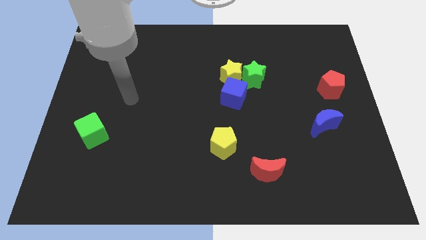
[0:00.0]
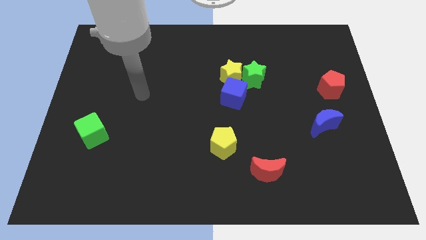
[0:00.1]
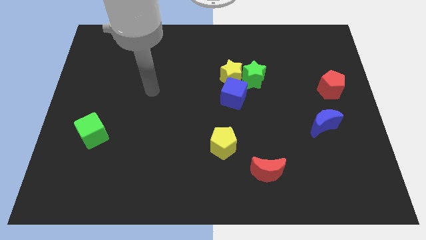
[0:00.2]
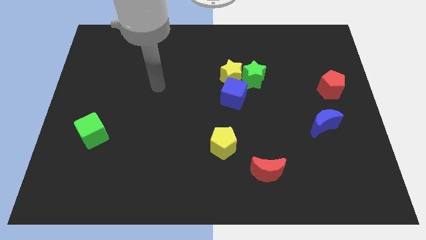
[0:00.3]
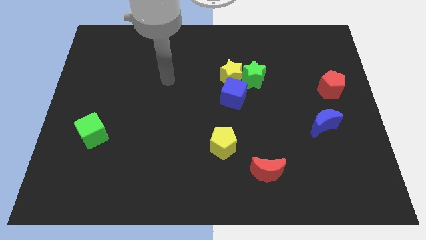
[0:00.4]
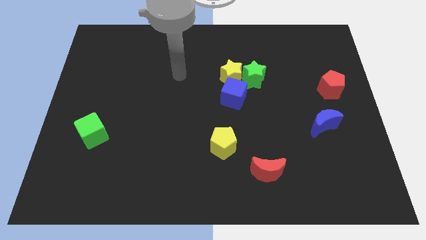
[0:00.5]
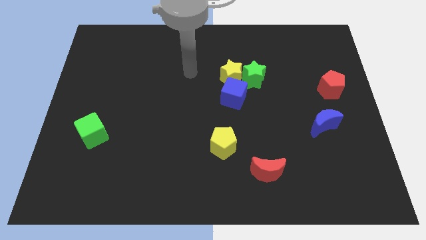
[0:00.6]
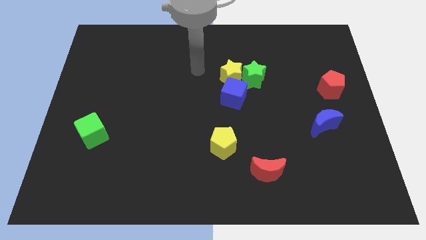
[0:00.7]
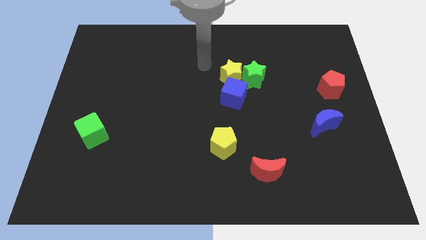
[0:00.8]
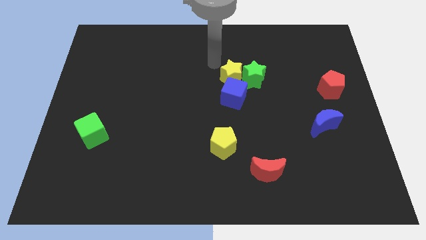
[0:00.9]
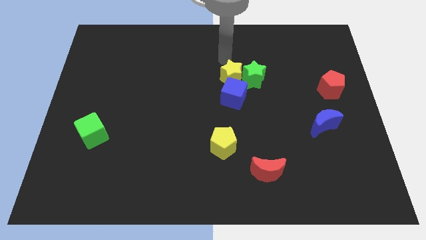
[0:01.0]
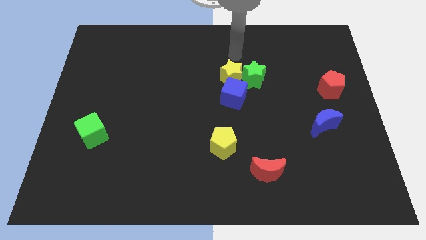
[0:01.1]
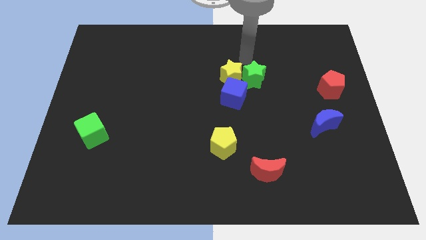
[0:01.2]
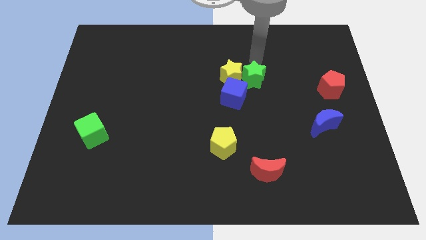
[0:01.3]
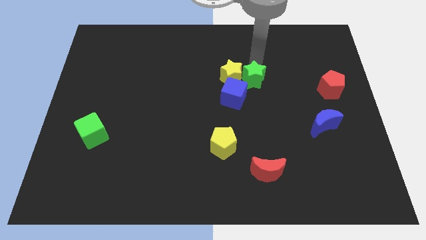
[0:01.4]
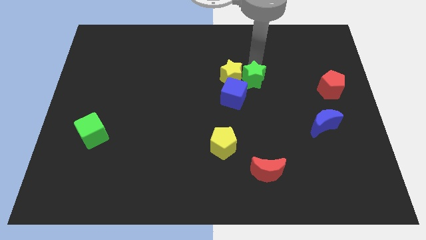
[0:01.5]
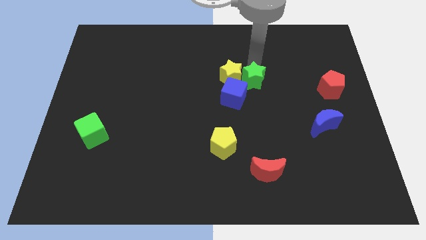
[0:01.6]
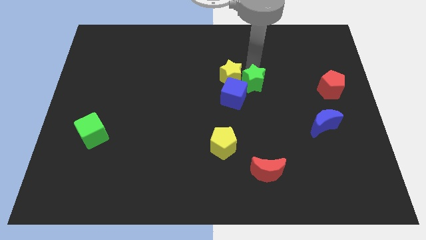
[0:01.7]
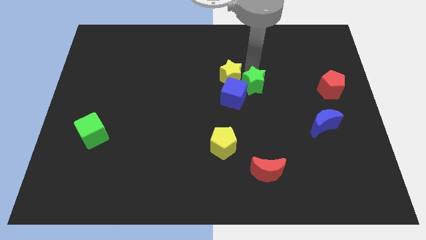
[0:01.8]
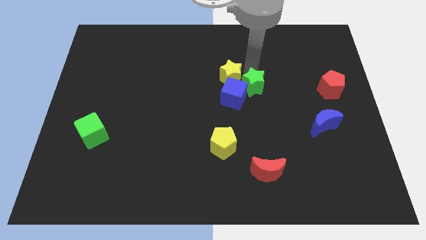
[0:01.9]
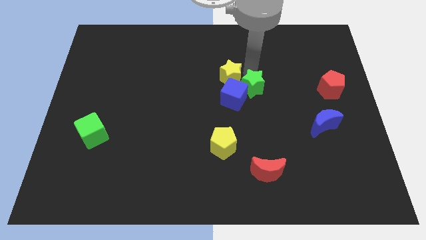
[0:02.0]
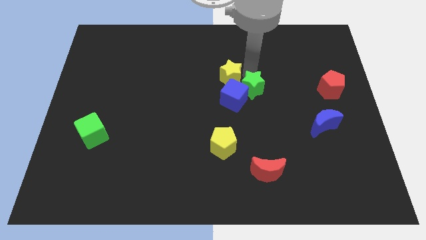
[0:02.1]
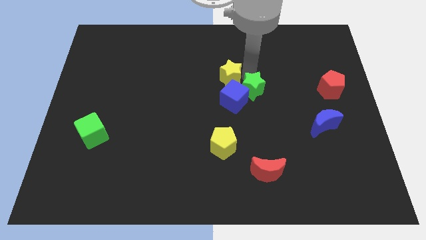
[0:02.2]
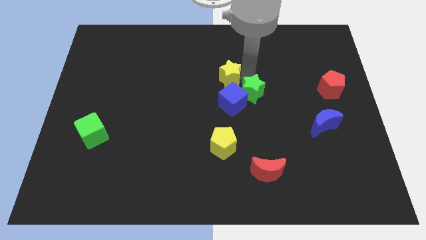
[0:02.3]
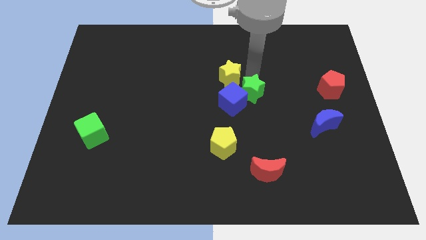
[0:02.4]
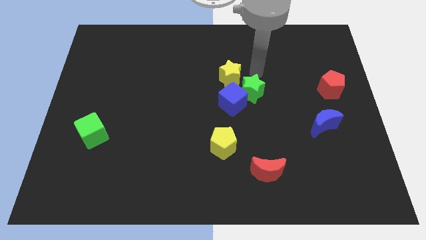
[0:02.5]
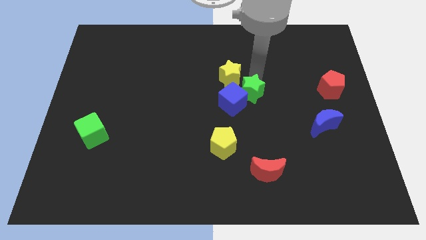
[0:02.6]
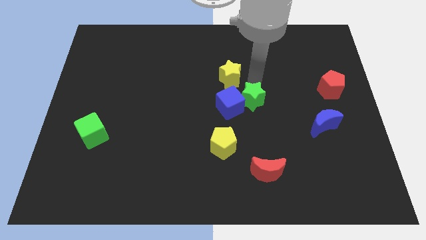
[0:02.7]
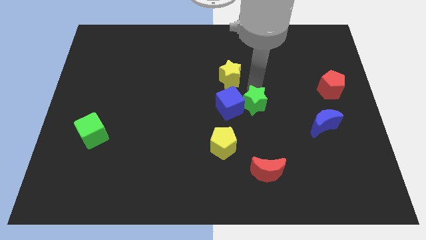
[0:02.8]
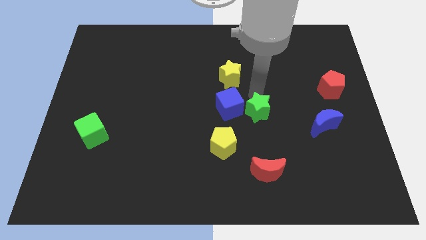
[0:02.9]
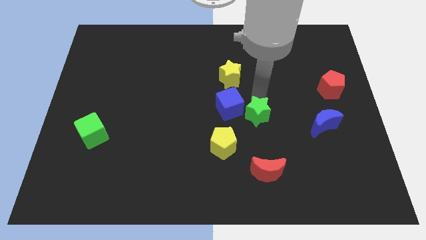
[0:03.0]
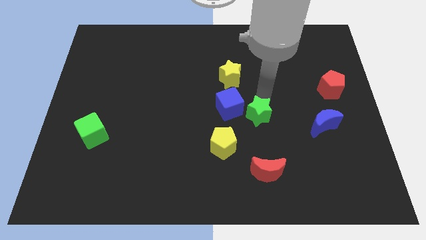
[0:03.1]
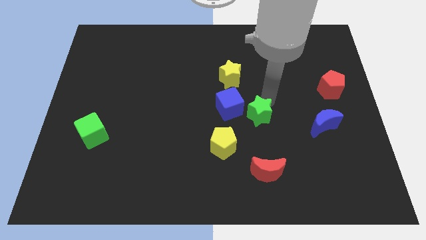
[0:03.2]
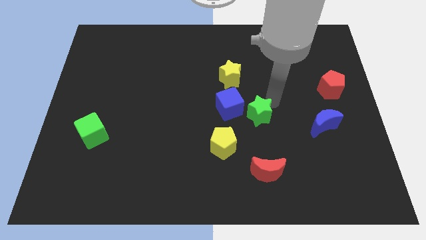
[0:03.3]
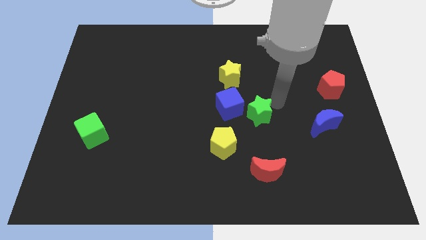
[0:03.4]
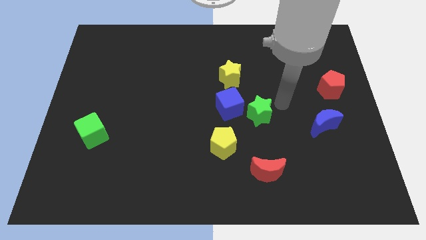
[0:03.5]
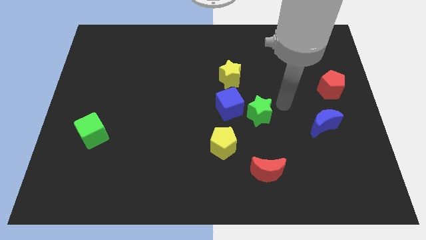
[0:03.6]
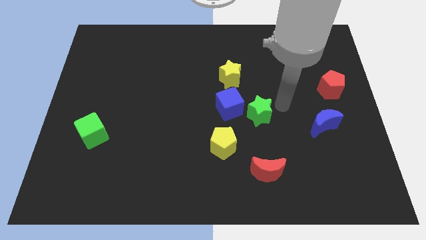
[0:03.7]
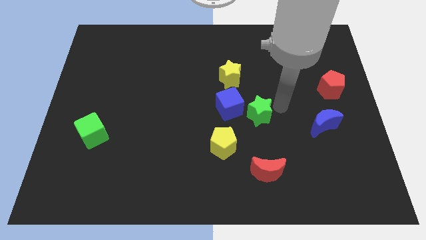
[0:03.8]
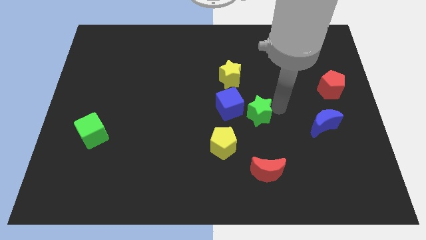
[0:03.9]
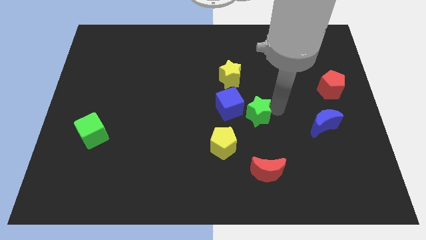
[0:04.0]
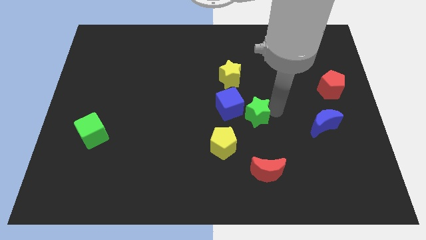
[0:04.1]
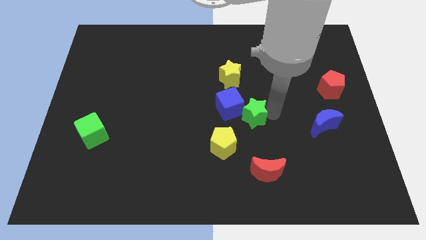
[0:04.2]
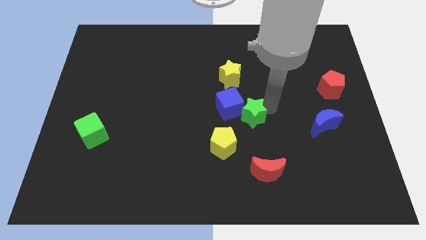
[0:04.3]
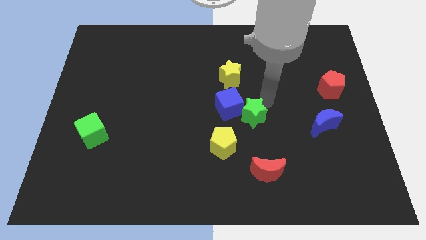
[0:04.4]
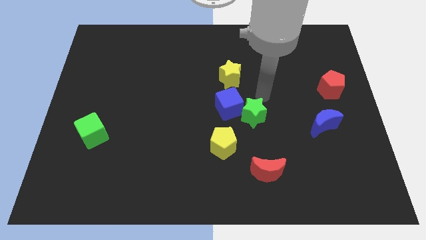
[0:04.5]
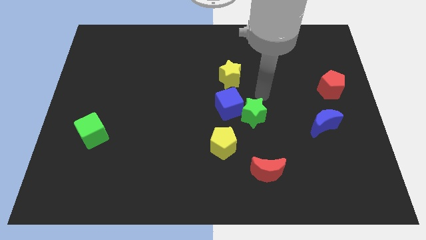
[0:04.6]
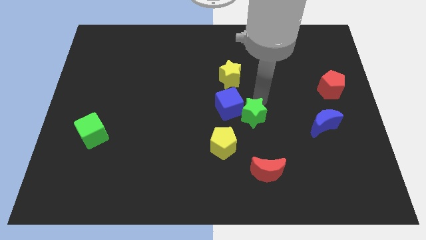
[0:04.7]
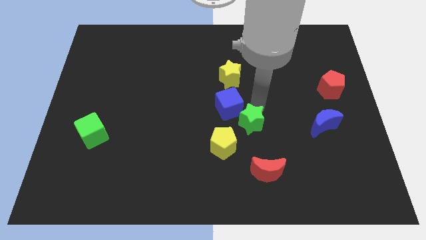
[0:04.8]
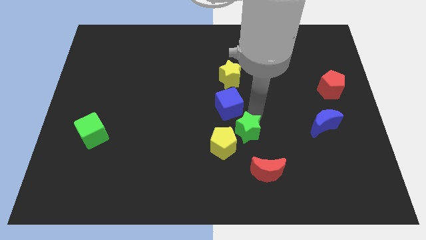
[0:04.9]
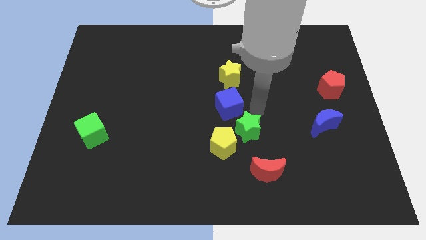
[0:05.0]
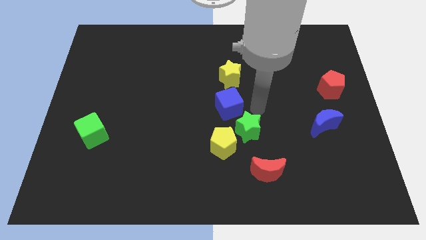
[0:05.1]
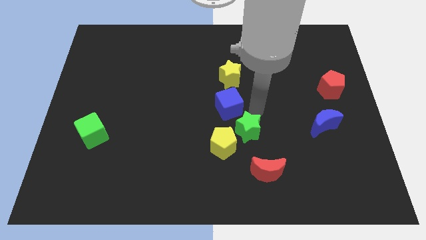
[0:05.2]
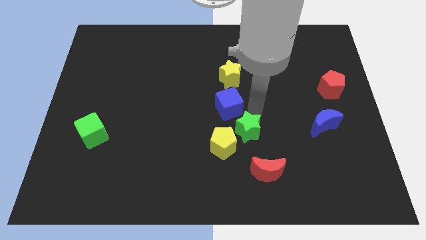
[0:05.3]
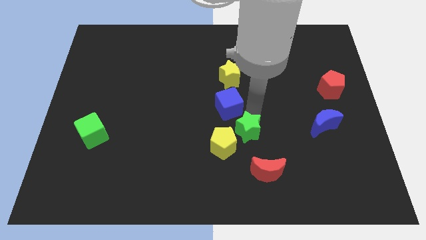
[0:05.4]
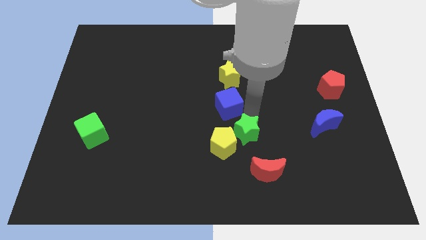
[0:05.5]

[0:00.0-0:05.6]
push the green star to the top left of the red moon

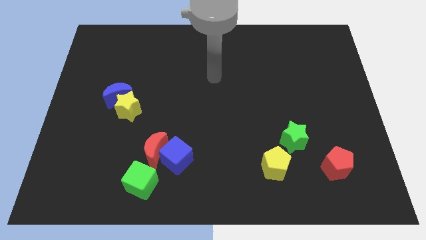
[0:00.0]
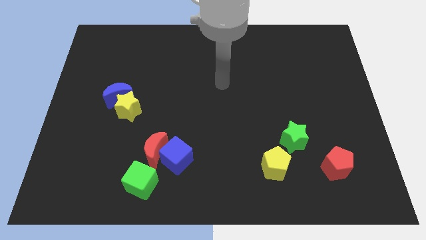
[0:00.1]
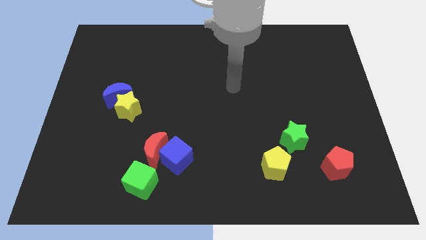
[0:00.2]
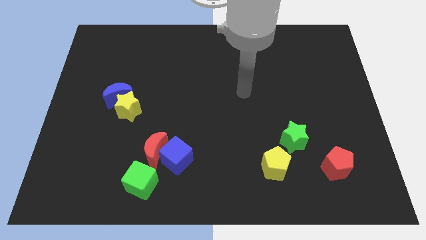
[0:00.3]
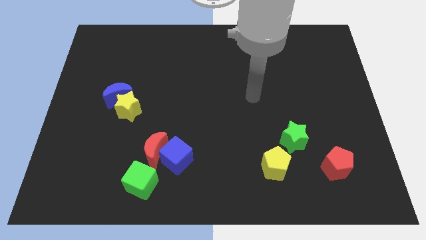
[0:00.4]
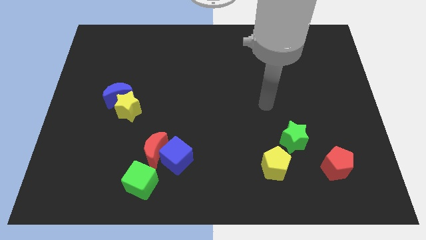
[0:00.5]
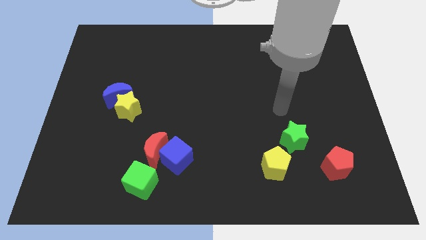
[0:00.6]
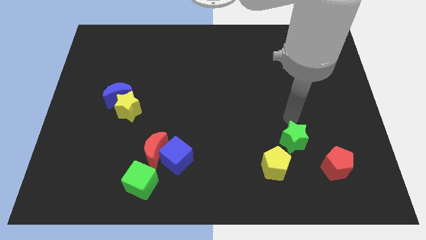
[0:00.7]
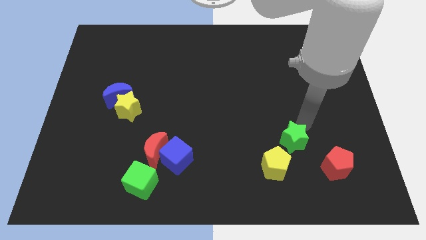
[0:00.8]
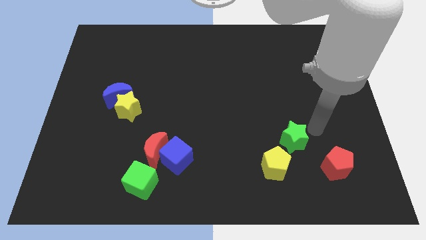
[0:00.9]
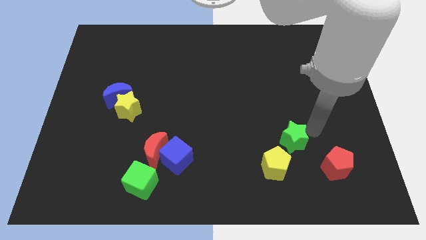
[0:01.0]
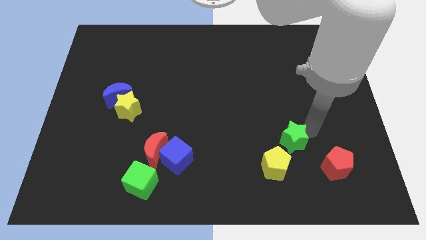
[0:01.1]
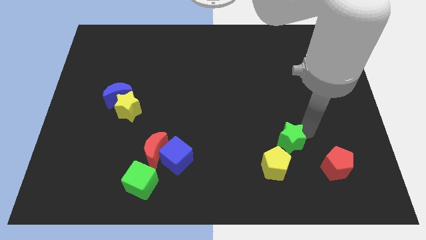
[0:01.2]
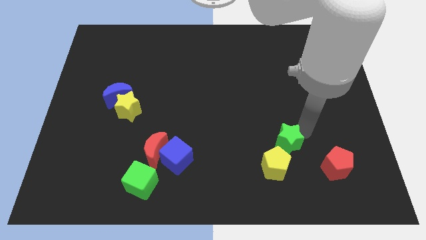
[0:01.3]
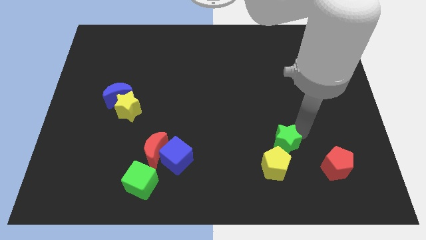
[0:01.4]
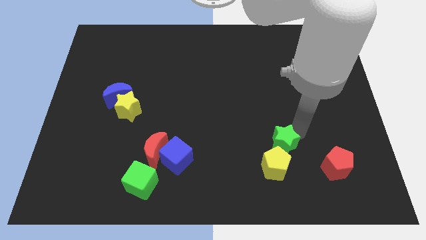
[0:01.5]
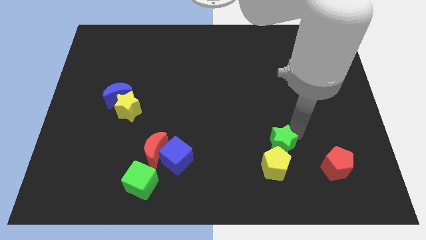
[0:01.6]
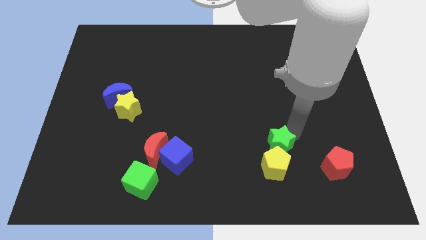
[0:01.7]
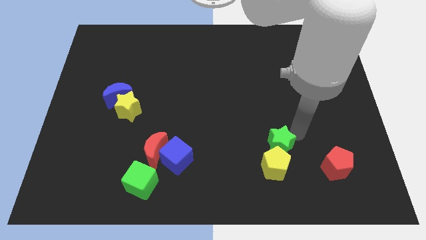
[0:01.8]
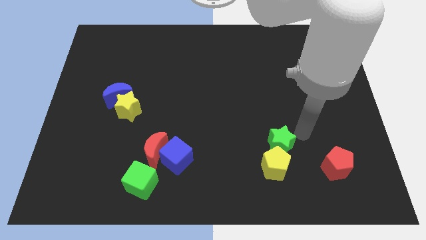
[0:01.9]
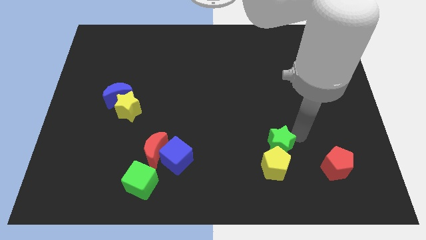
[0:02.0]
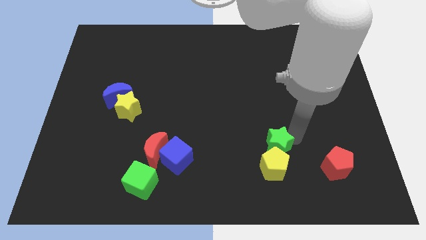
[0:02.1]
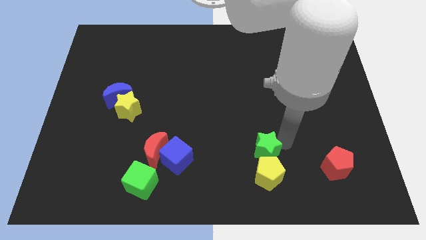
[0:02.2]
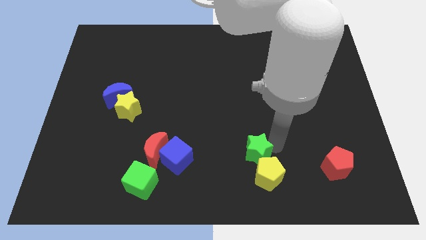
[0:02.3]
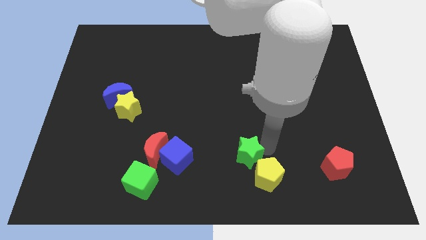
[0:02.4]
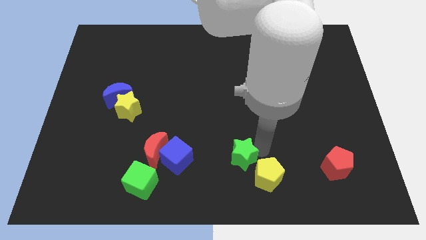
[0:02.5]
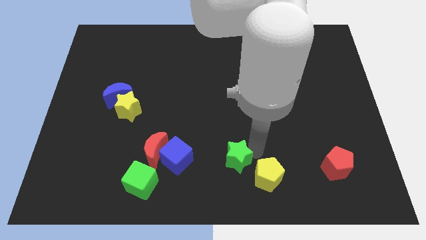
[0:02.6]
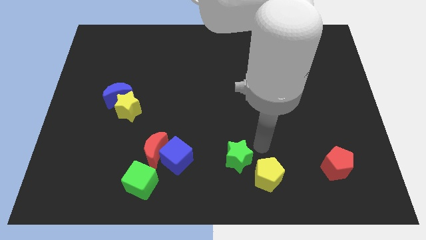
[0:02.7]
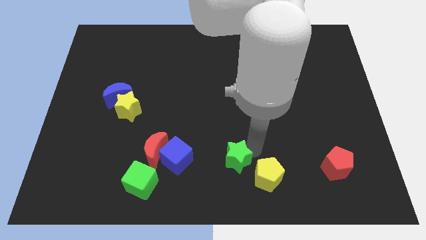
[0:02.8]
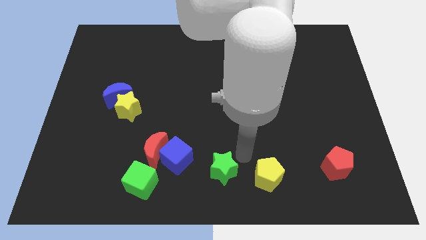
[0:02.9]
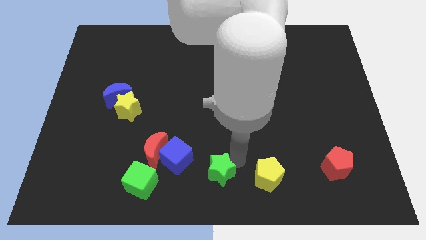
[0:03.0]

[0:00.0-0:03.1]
push the green star just right of the green cube
